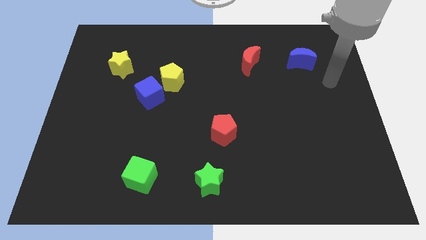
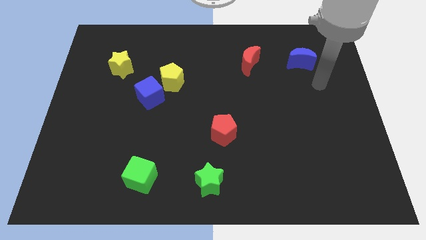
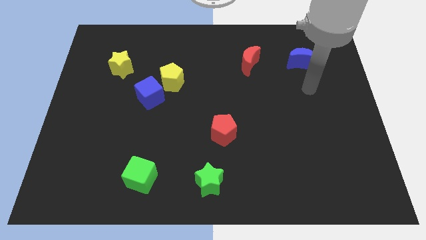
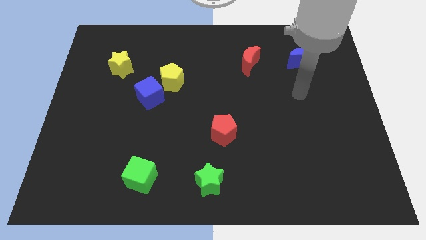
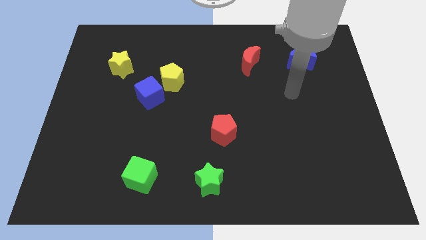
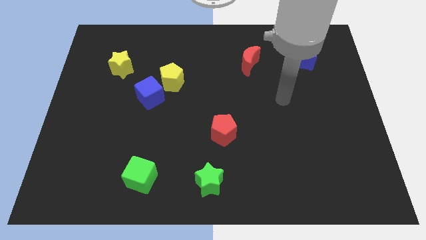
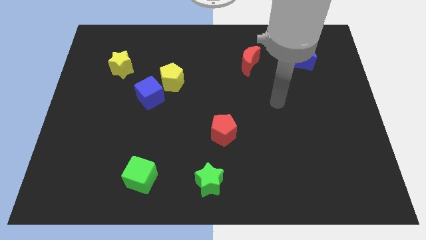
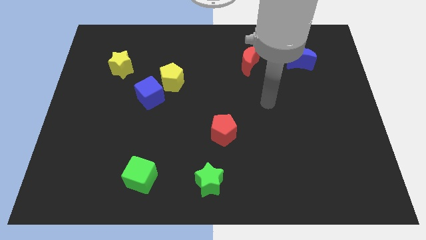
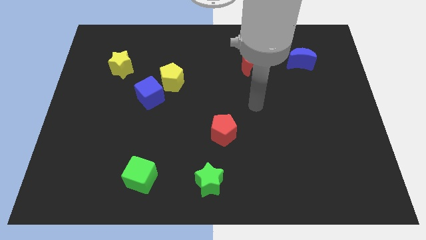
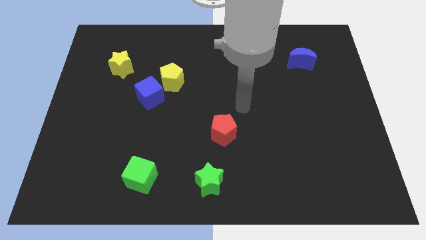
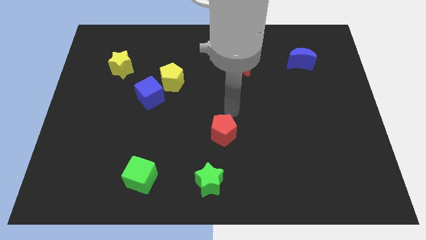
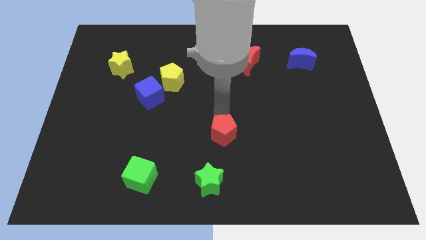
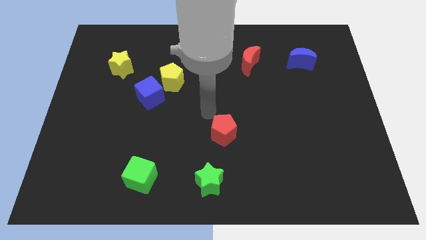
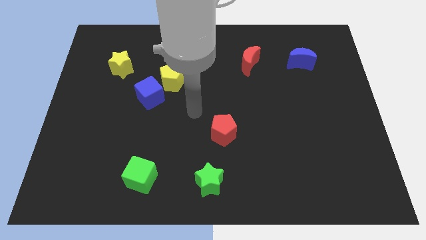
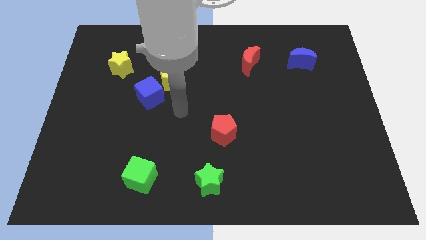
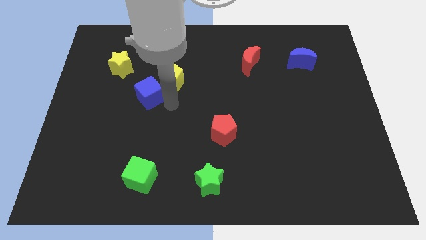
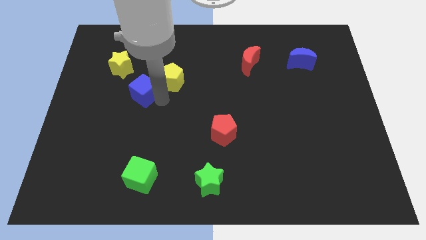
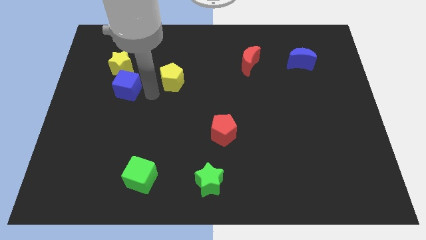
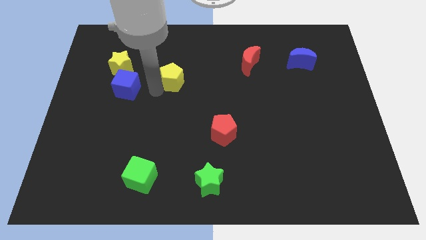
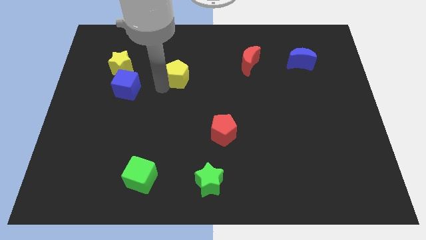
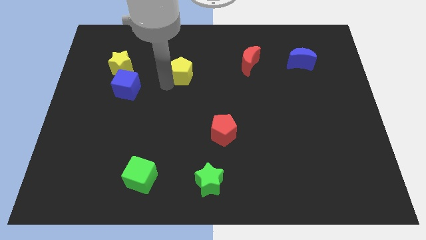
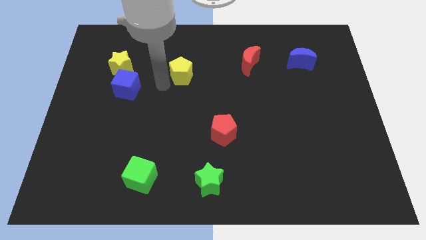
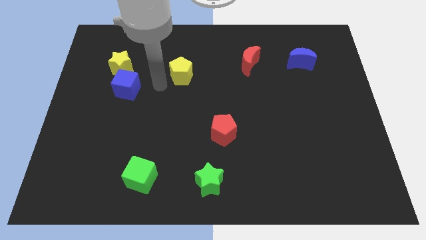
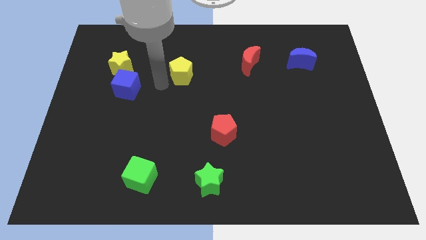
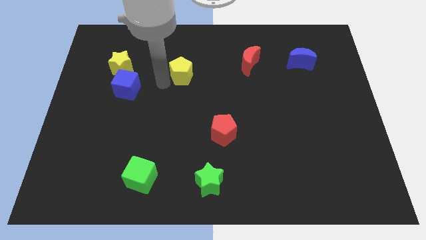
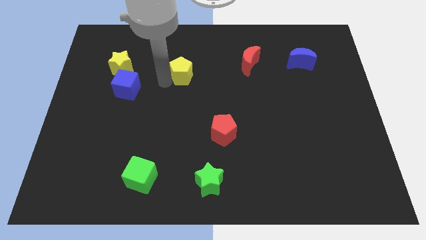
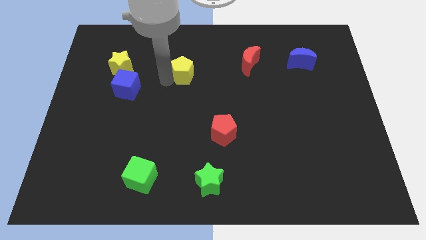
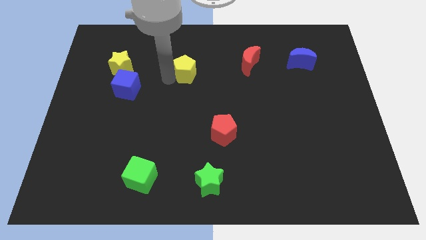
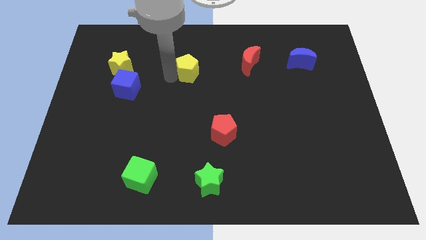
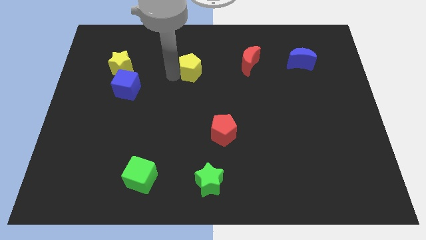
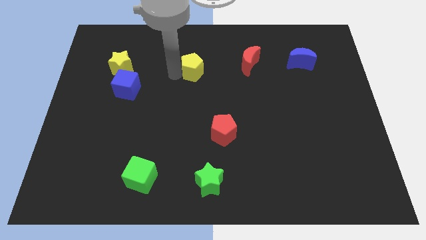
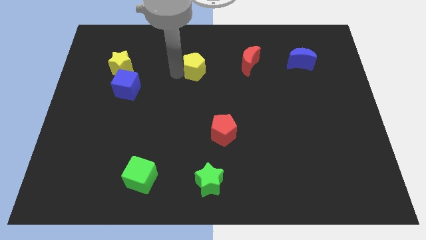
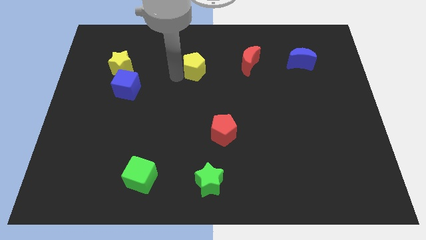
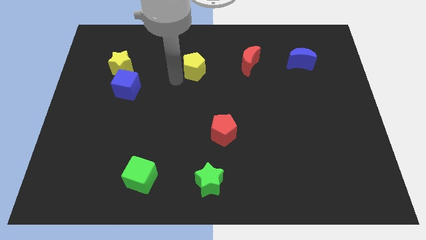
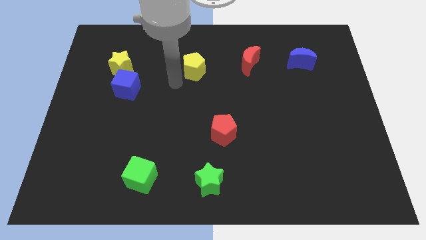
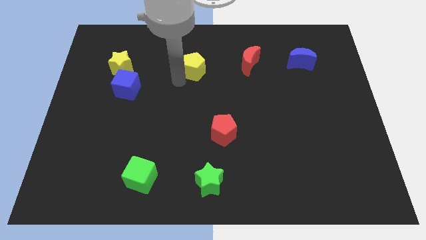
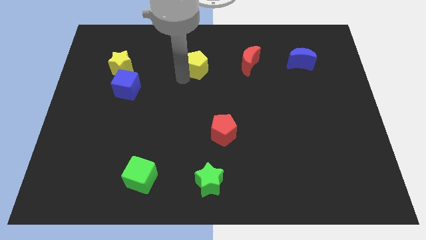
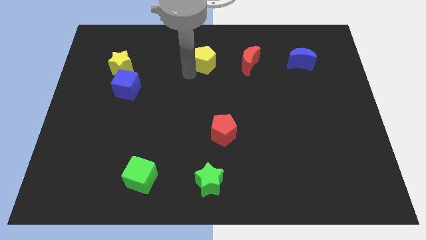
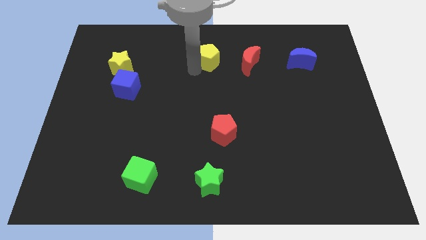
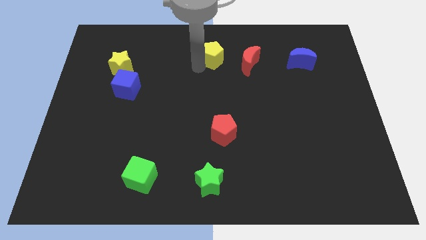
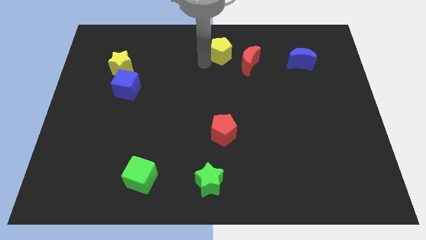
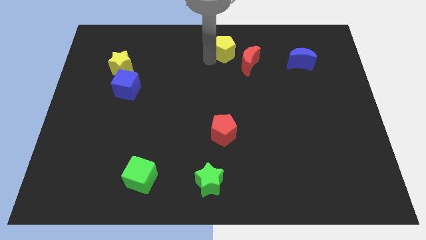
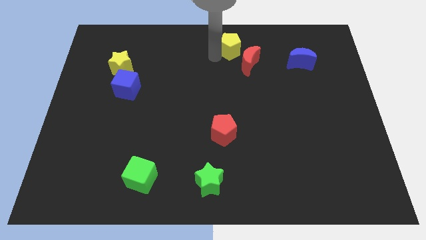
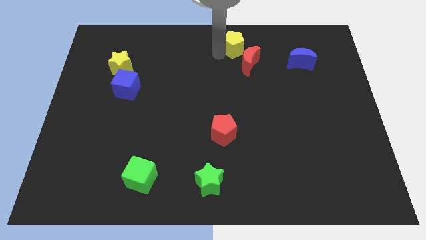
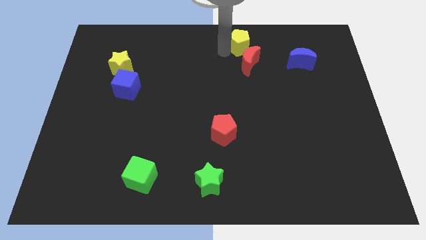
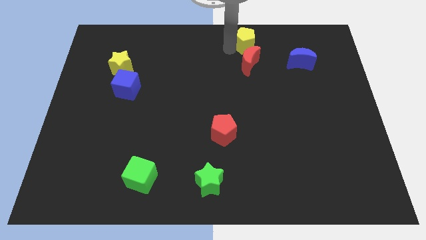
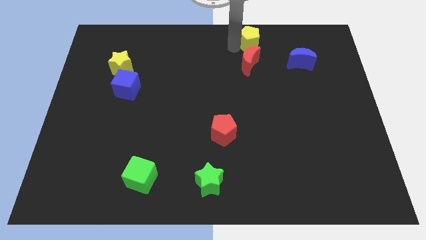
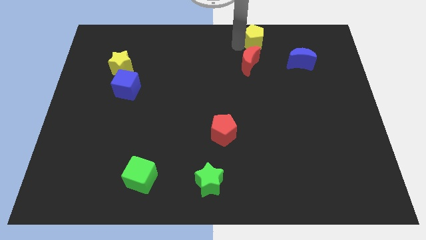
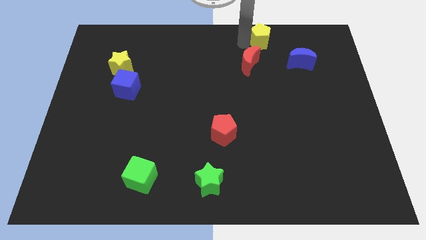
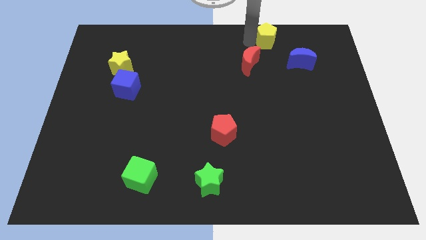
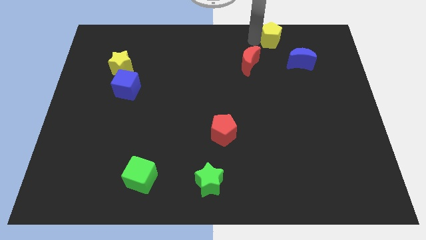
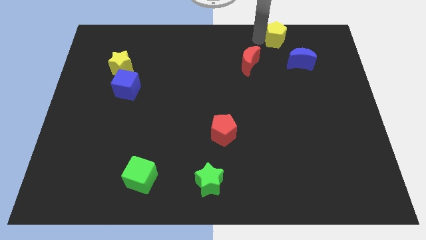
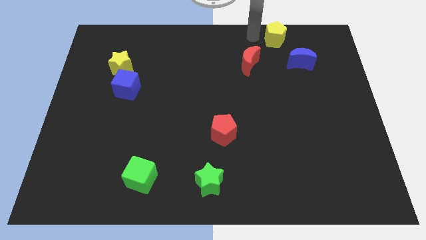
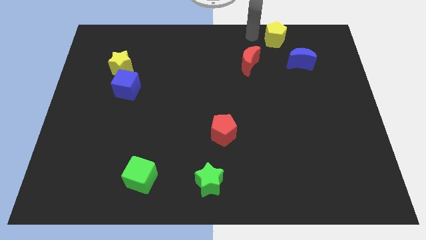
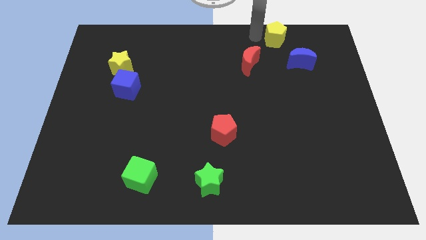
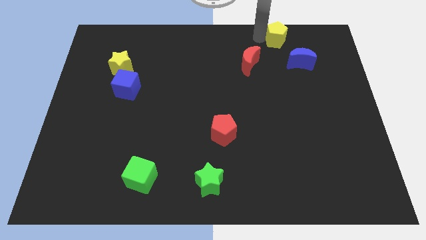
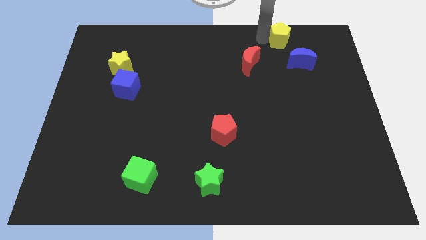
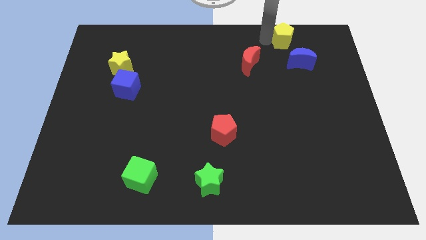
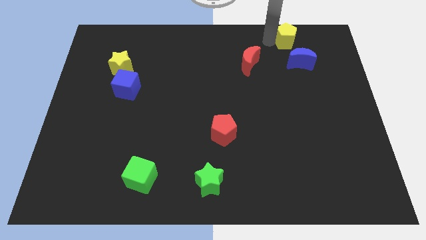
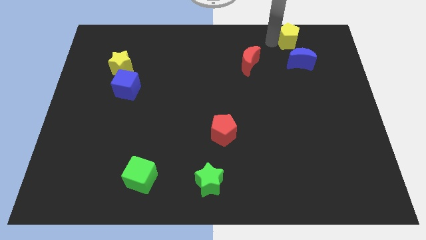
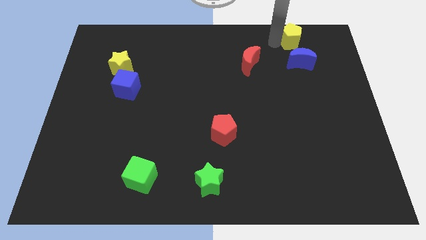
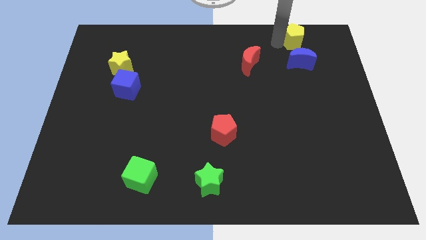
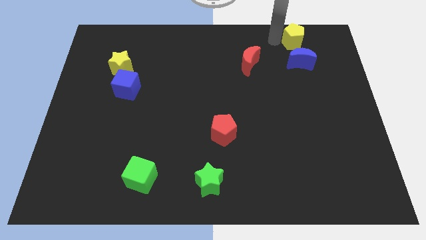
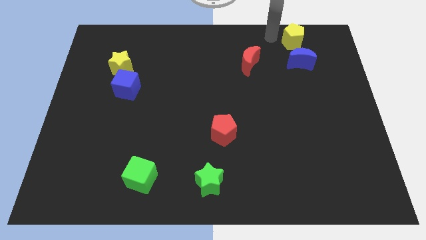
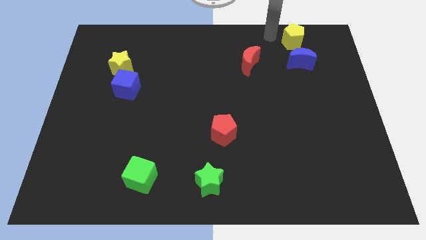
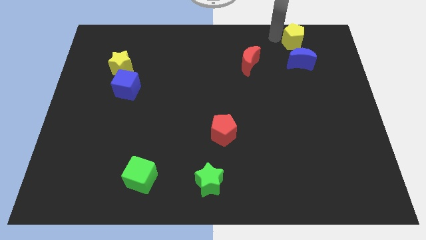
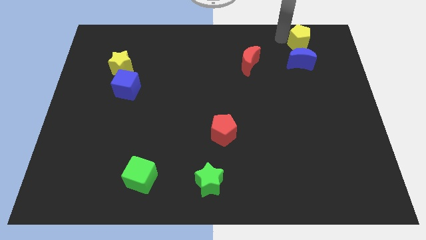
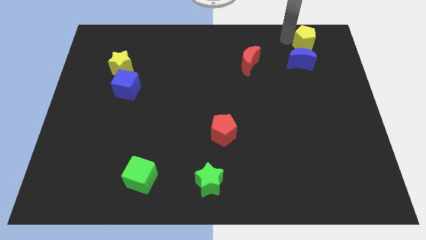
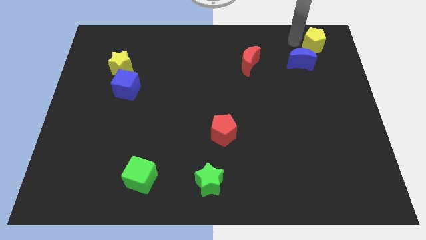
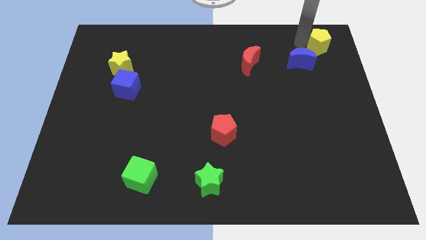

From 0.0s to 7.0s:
move the yellow pentagon to the upper right corner

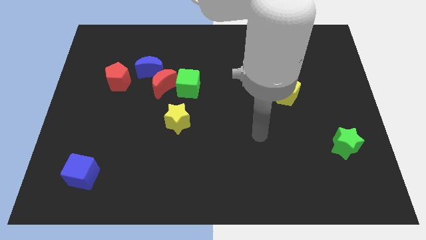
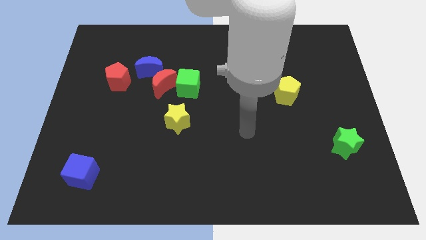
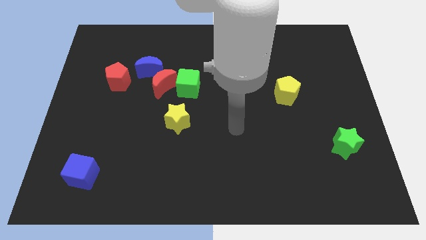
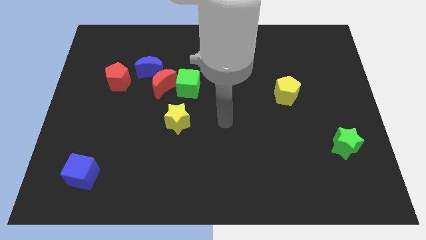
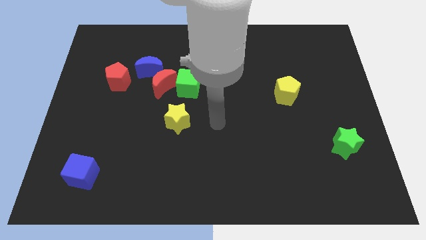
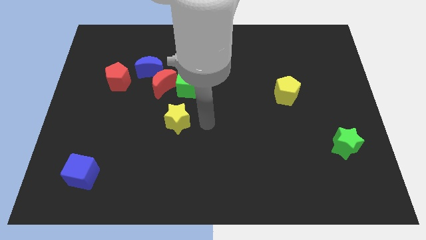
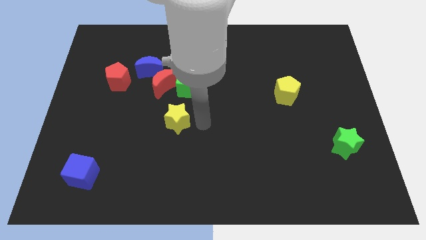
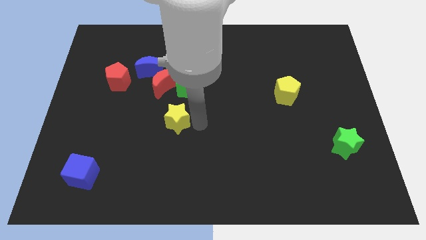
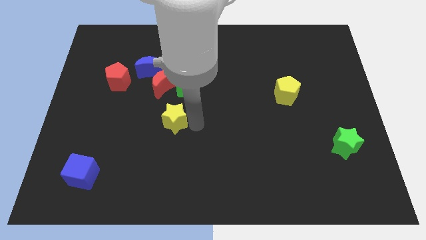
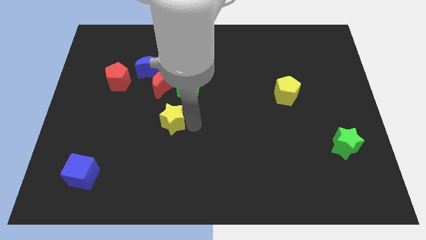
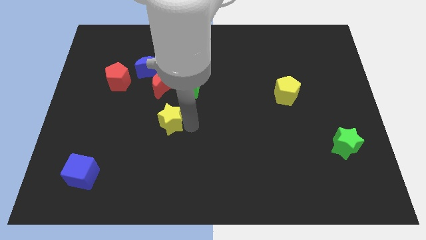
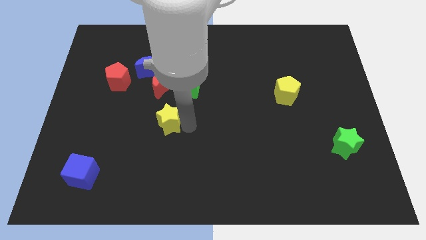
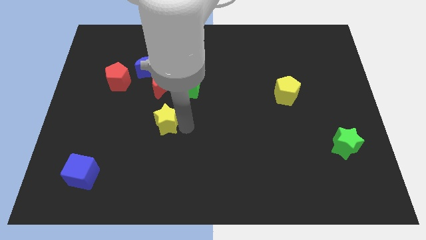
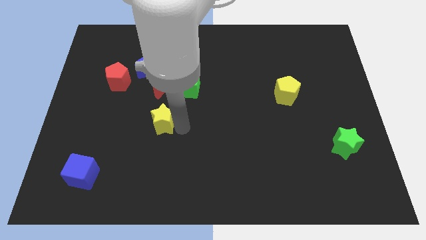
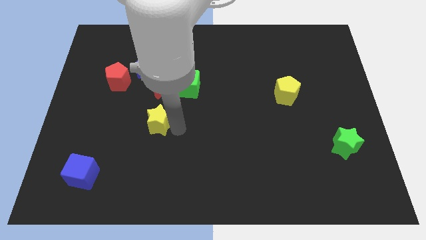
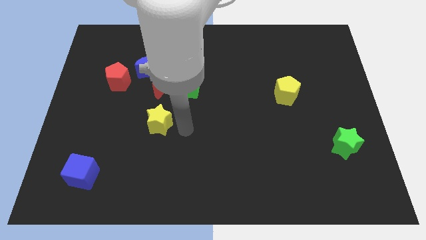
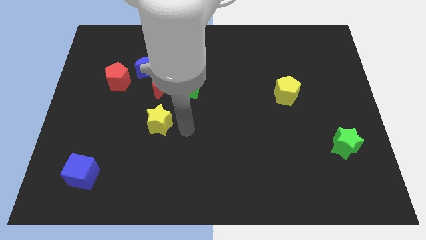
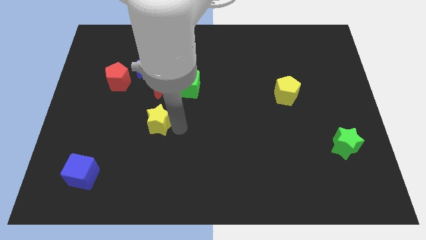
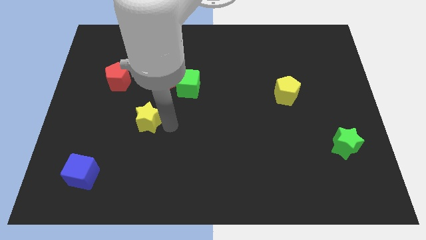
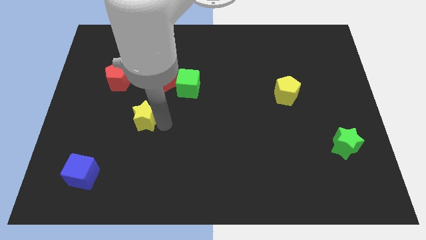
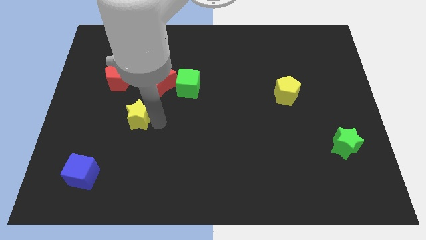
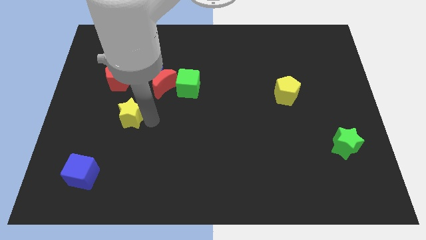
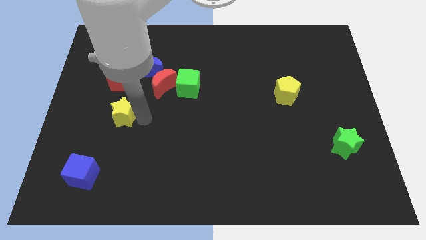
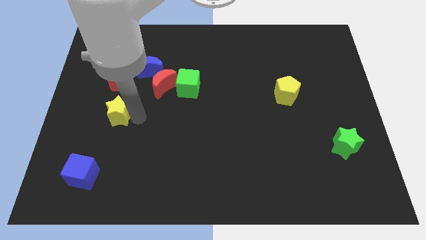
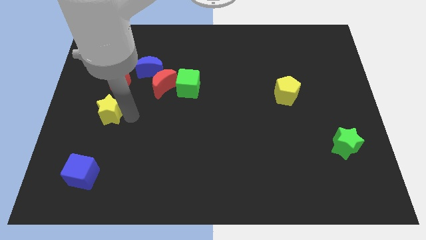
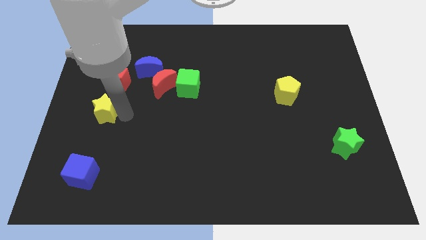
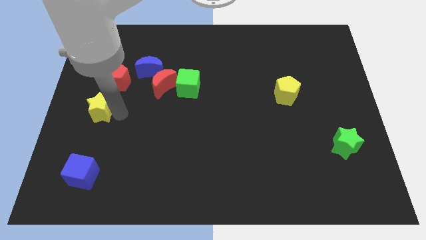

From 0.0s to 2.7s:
put the yellow star to the left side of the board
